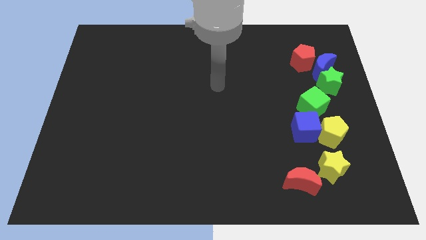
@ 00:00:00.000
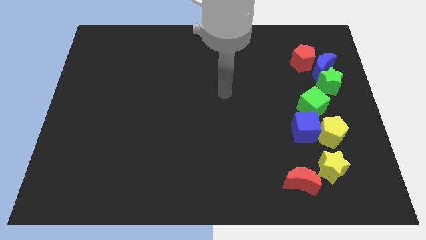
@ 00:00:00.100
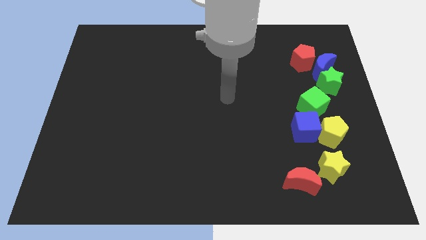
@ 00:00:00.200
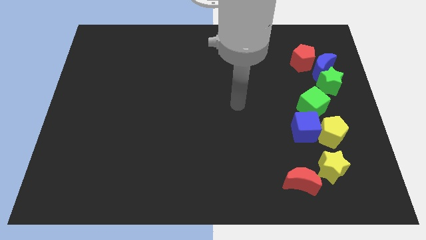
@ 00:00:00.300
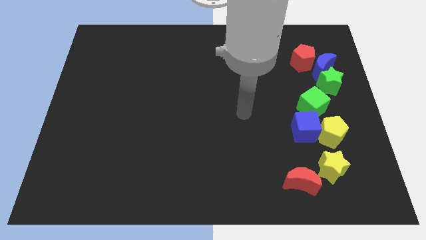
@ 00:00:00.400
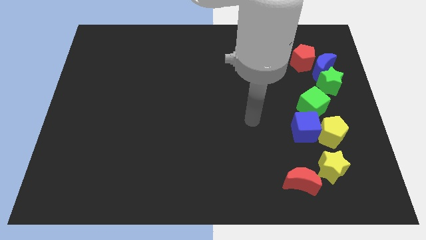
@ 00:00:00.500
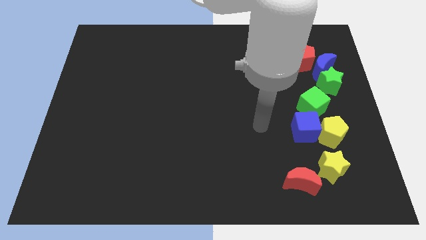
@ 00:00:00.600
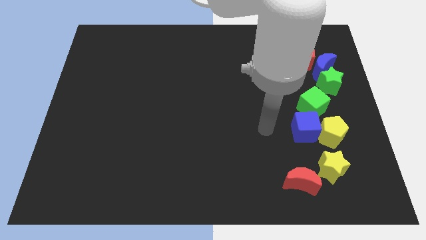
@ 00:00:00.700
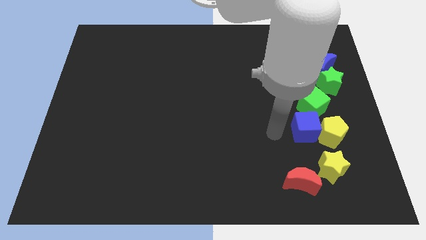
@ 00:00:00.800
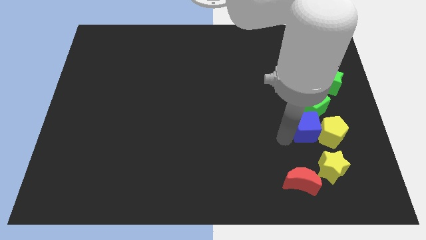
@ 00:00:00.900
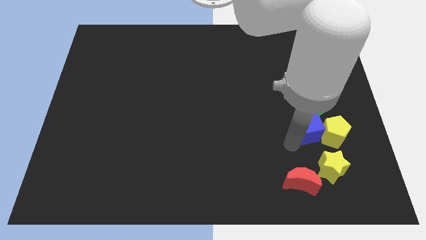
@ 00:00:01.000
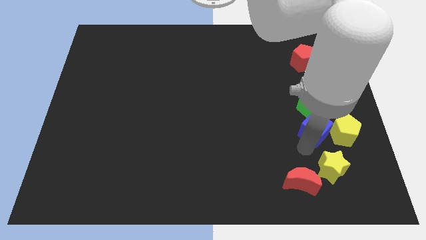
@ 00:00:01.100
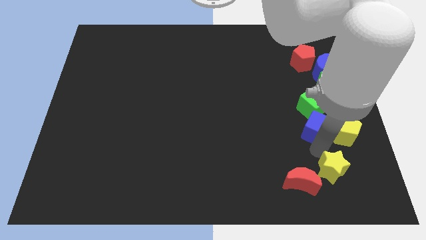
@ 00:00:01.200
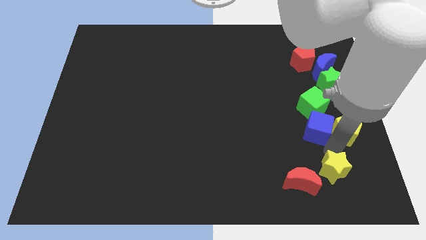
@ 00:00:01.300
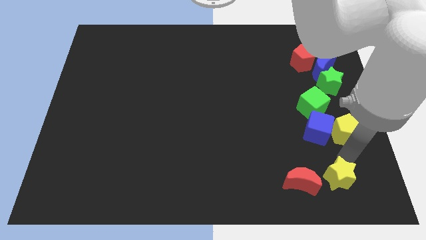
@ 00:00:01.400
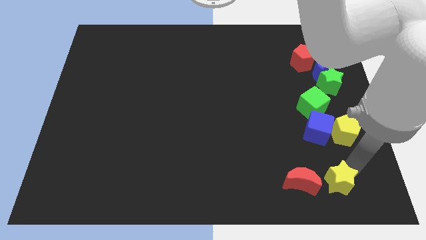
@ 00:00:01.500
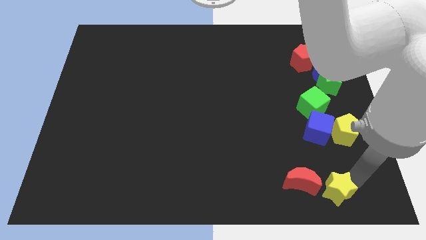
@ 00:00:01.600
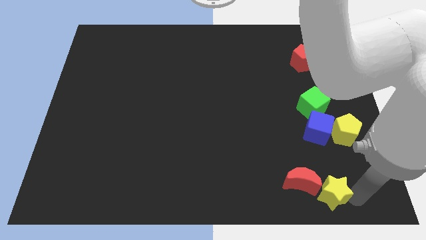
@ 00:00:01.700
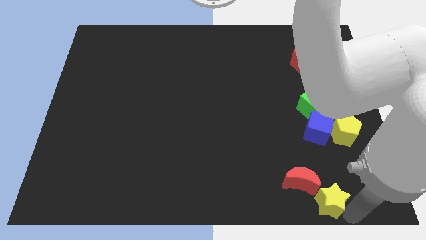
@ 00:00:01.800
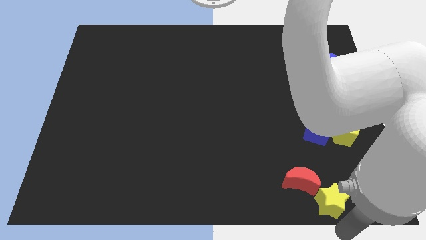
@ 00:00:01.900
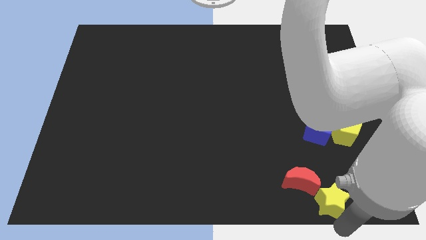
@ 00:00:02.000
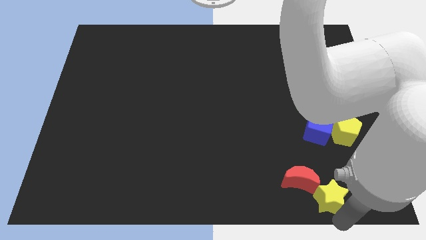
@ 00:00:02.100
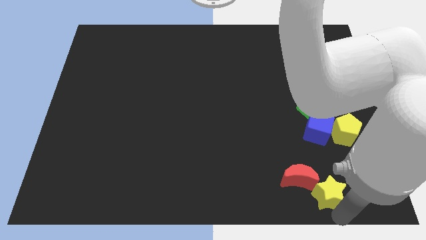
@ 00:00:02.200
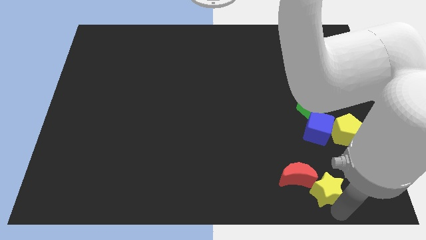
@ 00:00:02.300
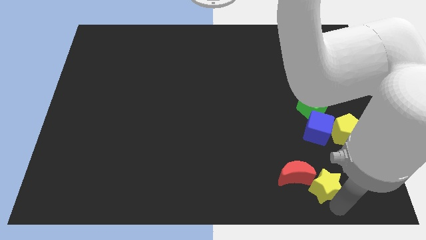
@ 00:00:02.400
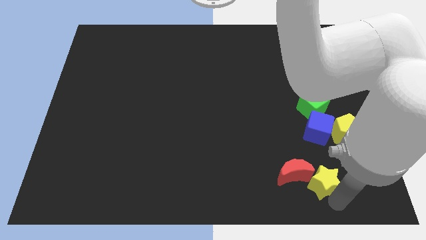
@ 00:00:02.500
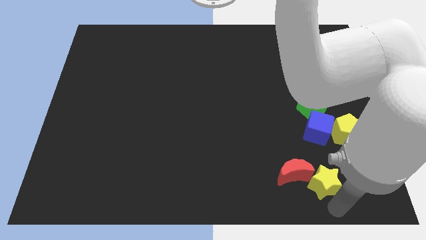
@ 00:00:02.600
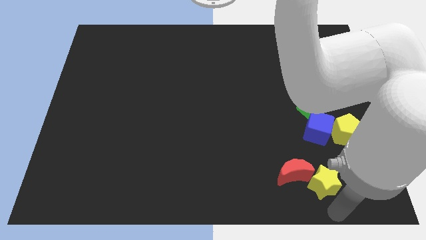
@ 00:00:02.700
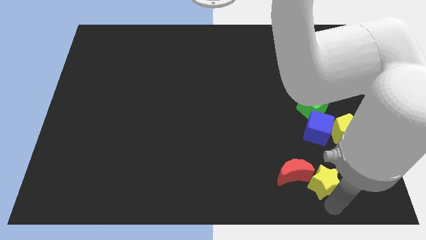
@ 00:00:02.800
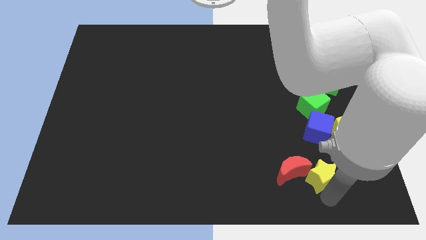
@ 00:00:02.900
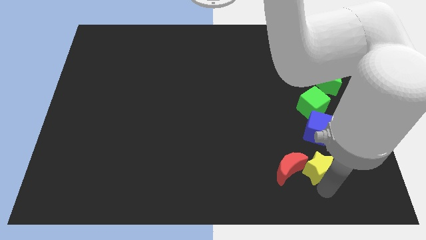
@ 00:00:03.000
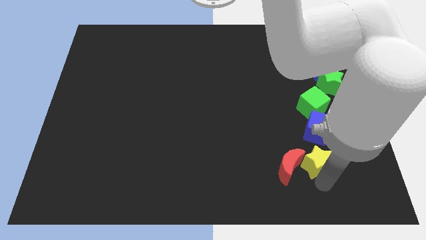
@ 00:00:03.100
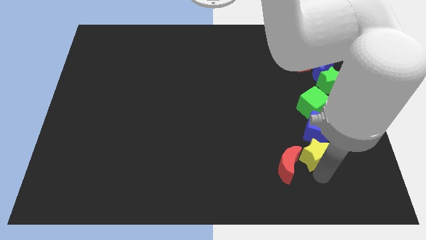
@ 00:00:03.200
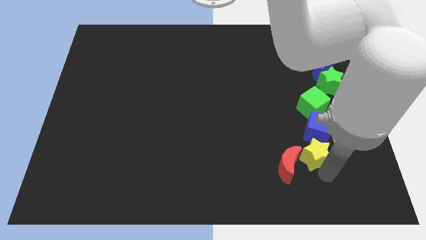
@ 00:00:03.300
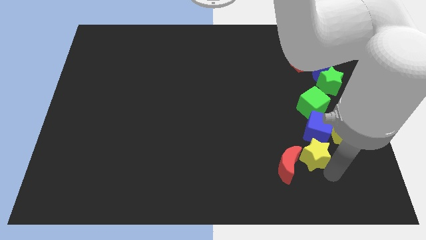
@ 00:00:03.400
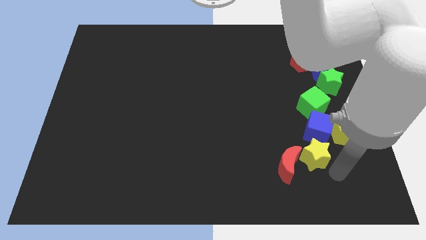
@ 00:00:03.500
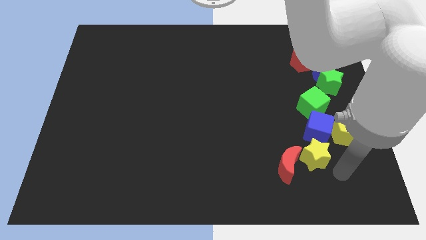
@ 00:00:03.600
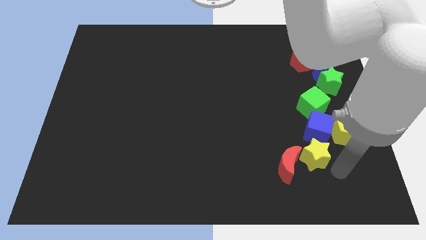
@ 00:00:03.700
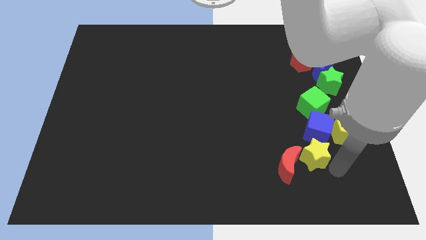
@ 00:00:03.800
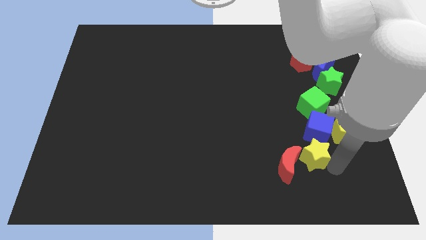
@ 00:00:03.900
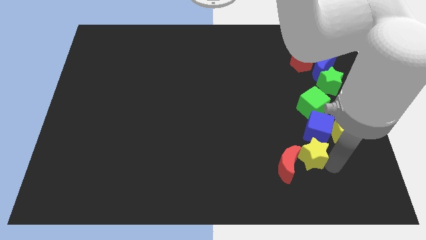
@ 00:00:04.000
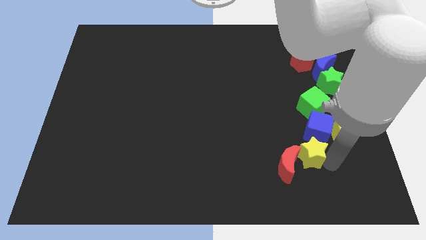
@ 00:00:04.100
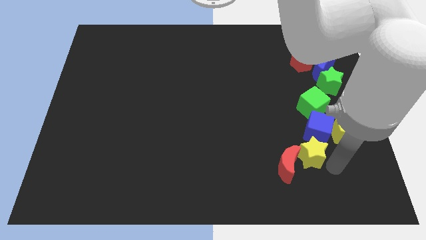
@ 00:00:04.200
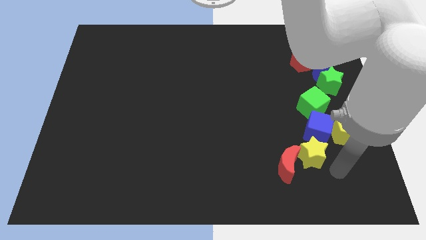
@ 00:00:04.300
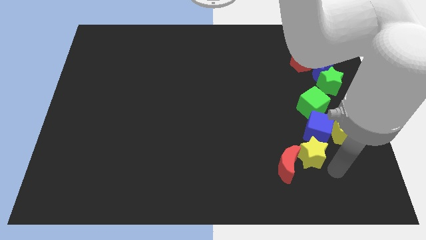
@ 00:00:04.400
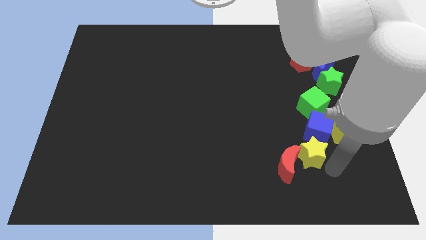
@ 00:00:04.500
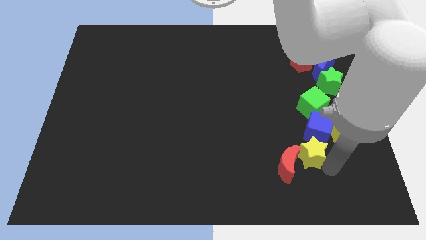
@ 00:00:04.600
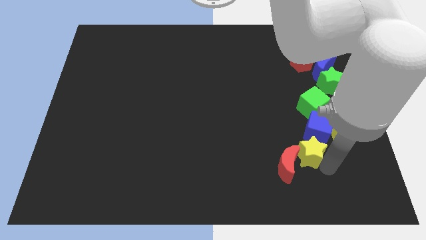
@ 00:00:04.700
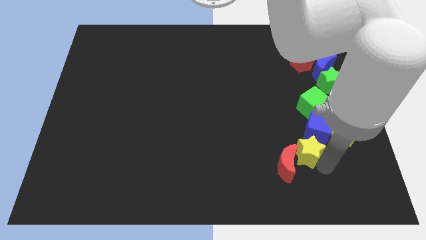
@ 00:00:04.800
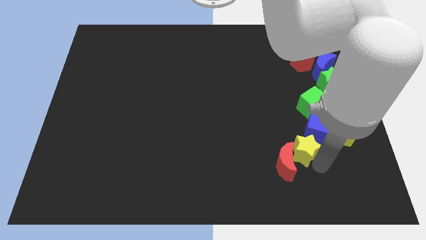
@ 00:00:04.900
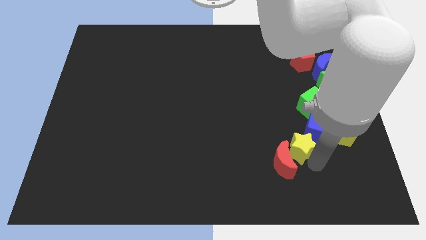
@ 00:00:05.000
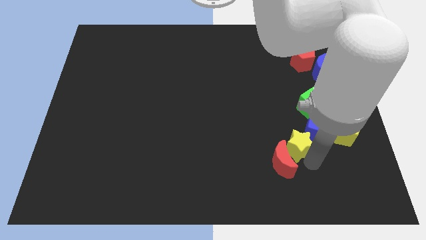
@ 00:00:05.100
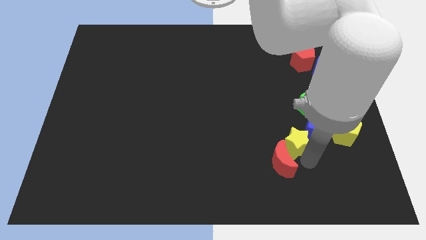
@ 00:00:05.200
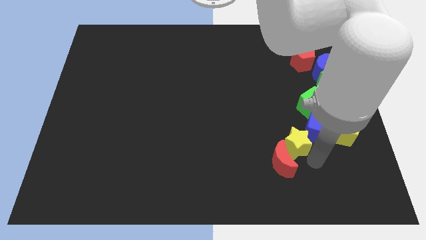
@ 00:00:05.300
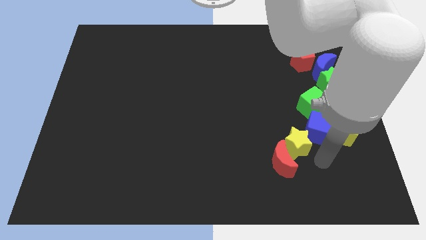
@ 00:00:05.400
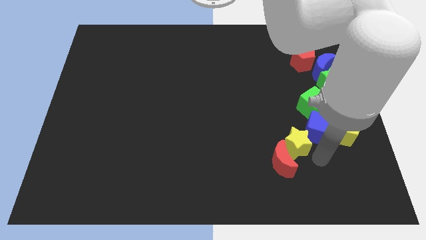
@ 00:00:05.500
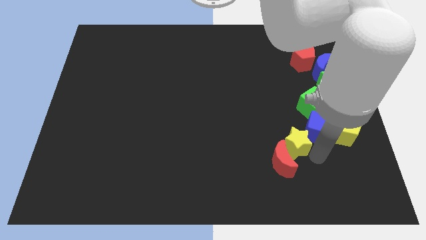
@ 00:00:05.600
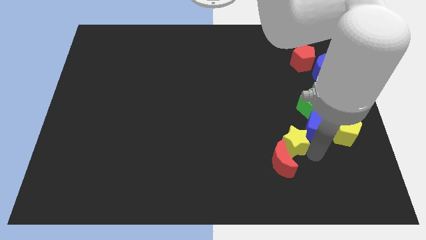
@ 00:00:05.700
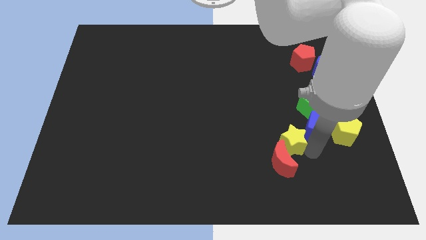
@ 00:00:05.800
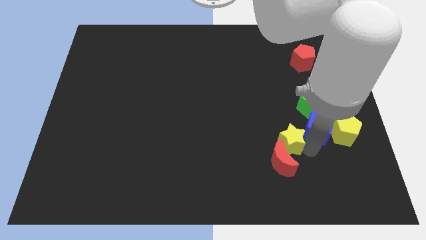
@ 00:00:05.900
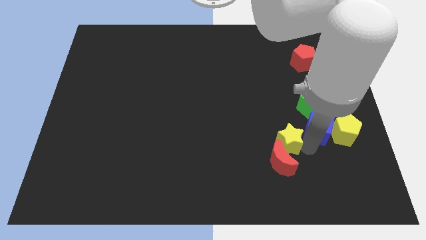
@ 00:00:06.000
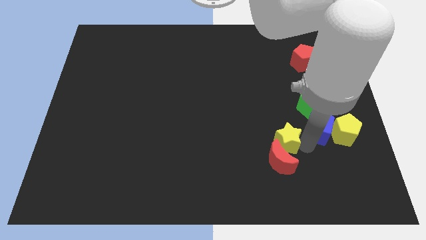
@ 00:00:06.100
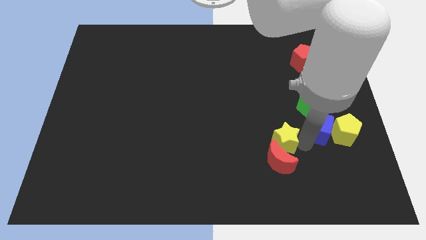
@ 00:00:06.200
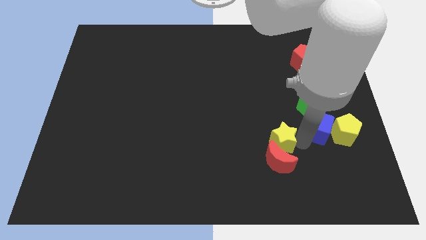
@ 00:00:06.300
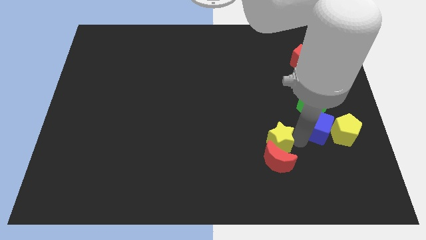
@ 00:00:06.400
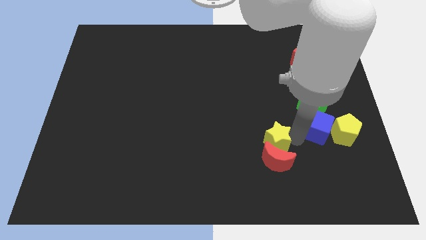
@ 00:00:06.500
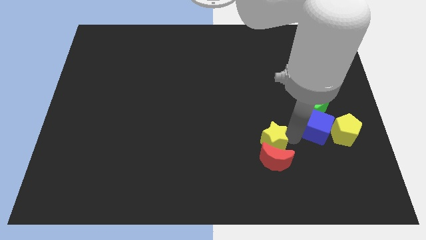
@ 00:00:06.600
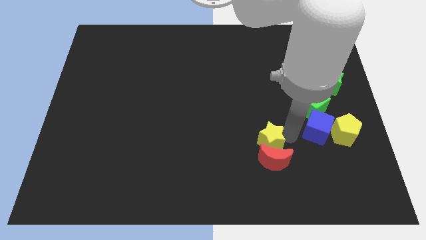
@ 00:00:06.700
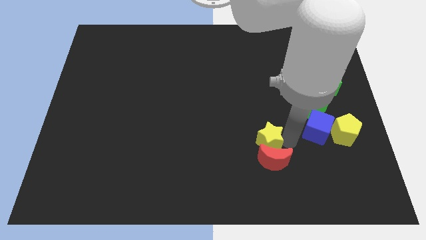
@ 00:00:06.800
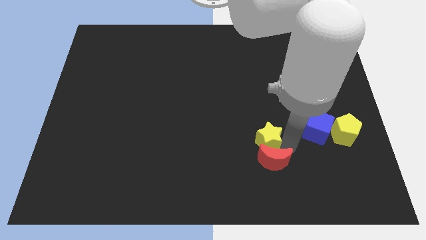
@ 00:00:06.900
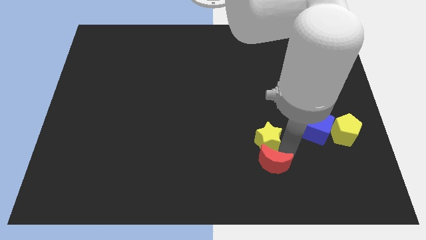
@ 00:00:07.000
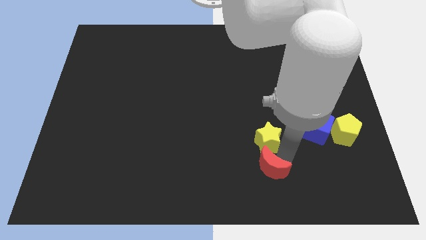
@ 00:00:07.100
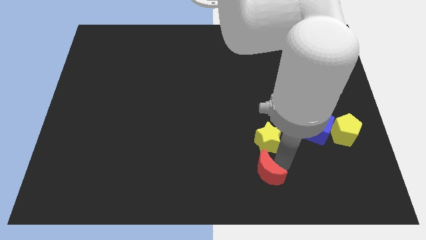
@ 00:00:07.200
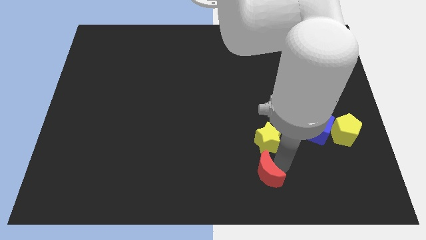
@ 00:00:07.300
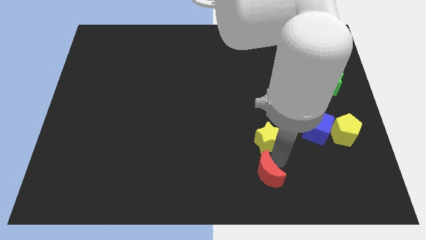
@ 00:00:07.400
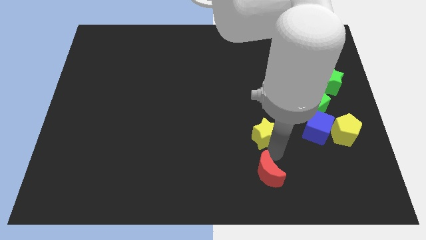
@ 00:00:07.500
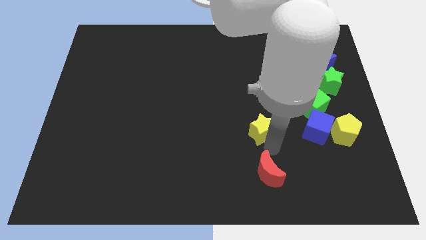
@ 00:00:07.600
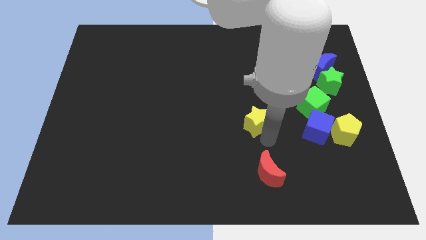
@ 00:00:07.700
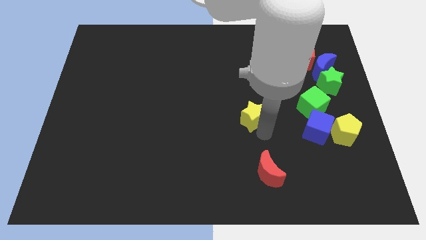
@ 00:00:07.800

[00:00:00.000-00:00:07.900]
push the yellow star up and then to the left
